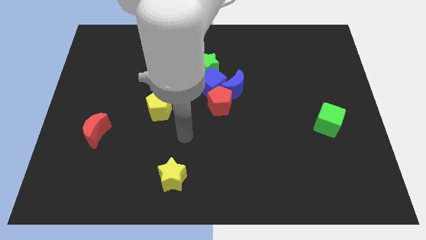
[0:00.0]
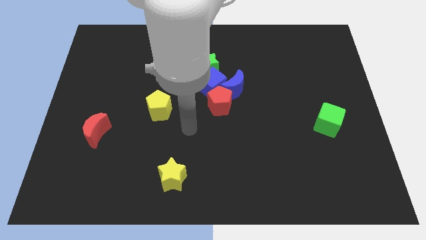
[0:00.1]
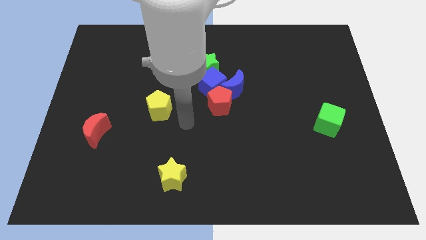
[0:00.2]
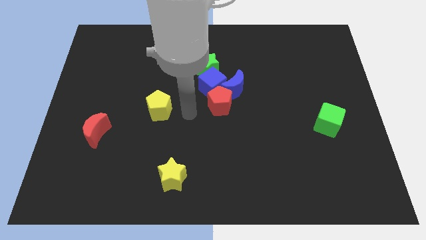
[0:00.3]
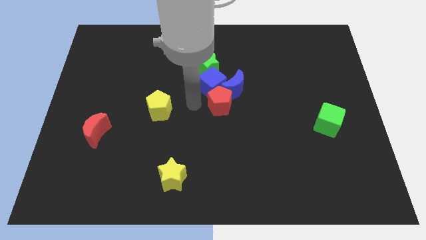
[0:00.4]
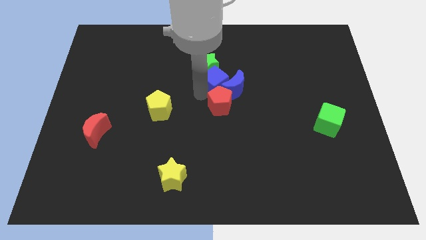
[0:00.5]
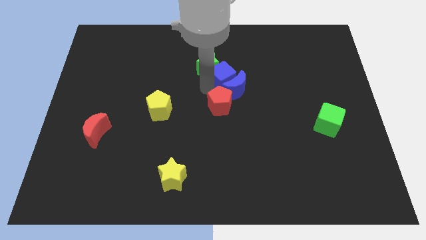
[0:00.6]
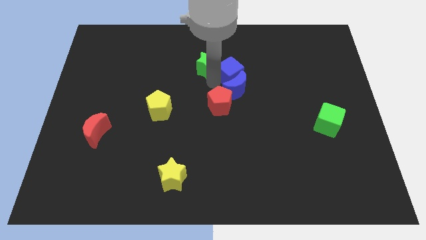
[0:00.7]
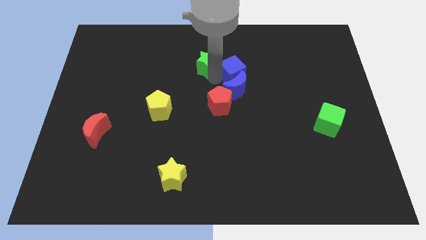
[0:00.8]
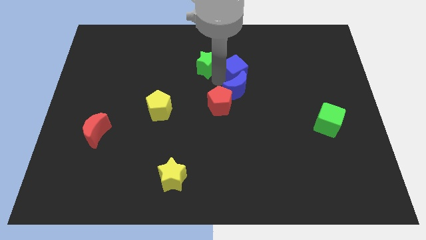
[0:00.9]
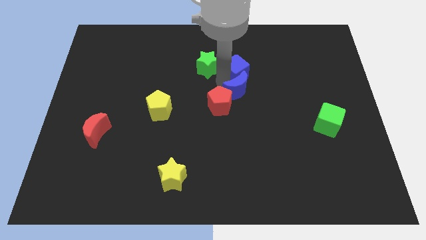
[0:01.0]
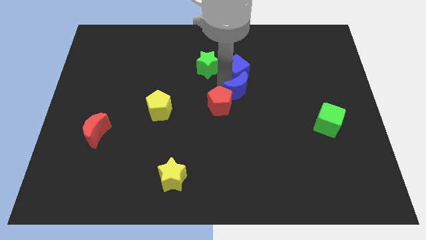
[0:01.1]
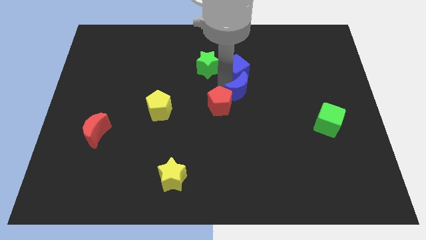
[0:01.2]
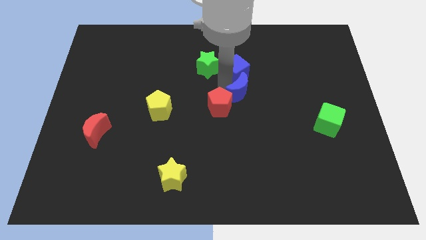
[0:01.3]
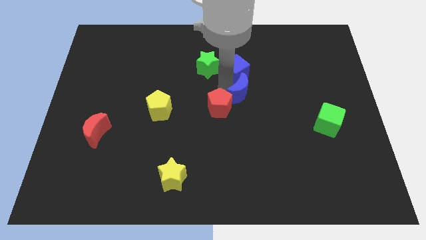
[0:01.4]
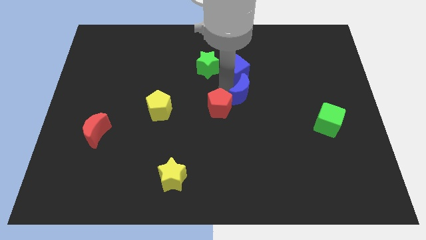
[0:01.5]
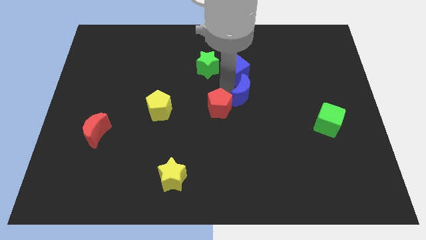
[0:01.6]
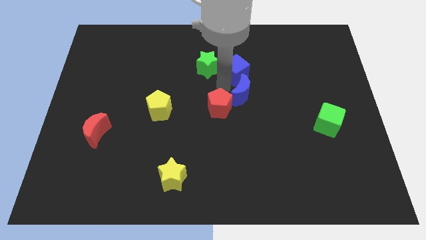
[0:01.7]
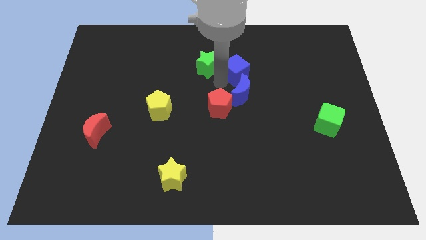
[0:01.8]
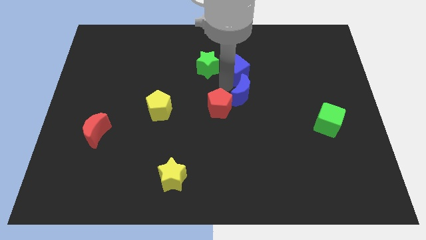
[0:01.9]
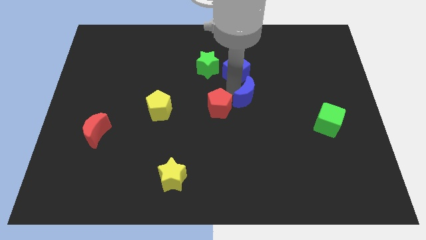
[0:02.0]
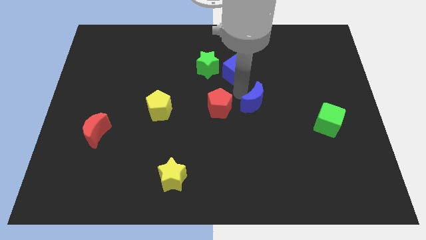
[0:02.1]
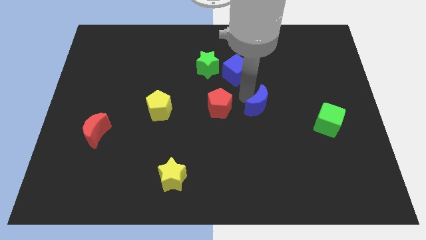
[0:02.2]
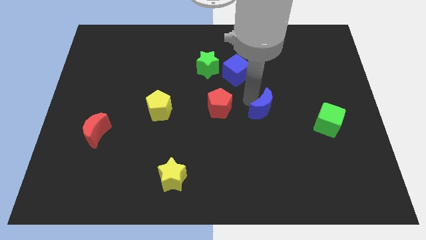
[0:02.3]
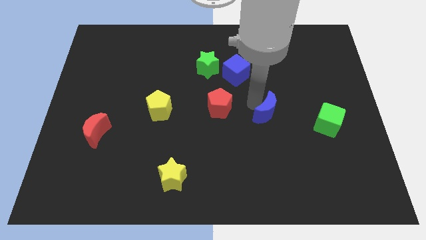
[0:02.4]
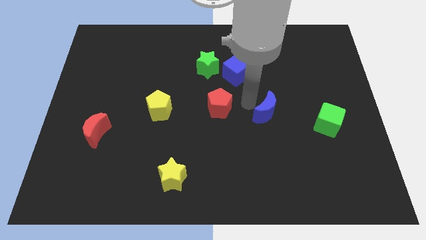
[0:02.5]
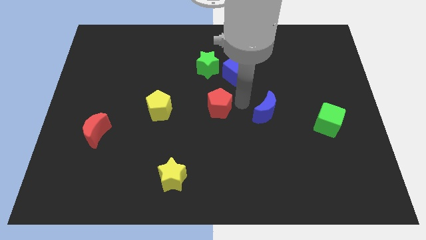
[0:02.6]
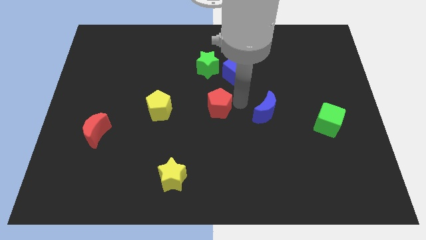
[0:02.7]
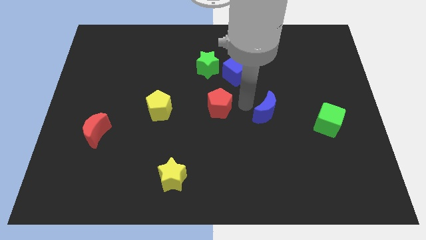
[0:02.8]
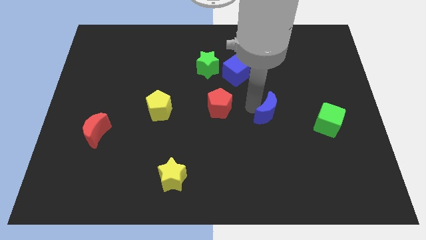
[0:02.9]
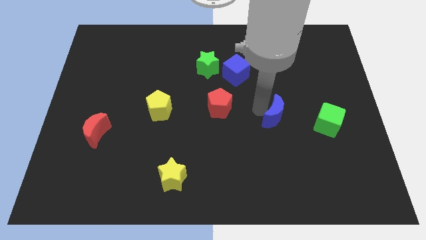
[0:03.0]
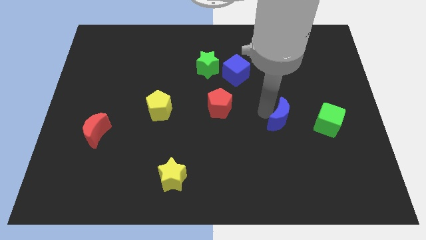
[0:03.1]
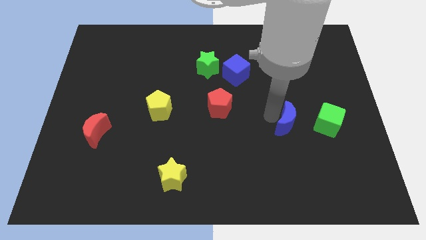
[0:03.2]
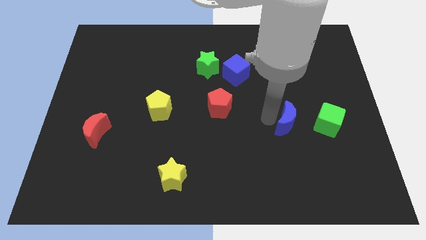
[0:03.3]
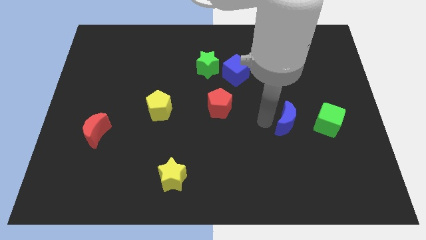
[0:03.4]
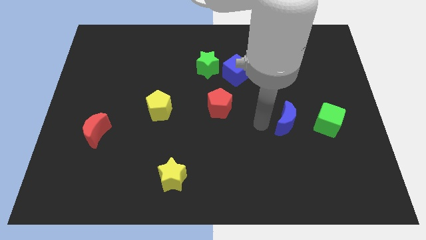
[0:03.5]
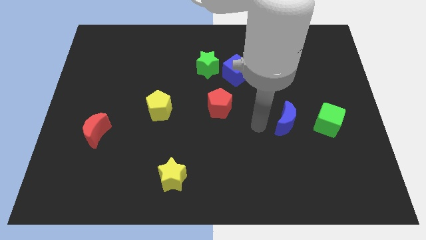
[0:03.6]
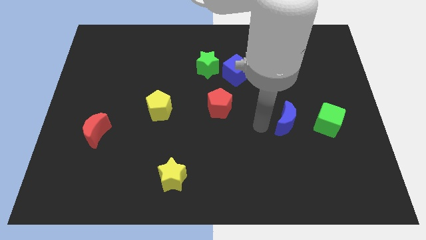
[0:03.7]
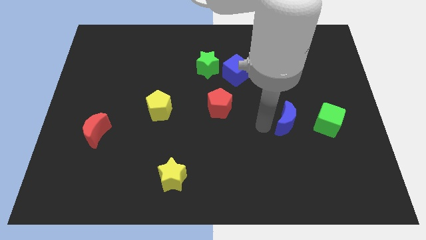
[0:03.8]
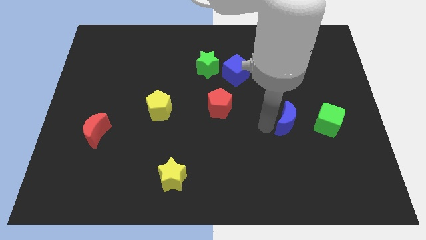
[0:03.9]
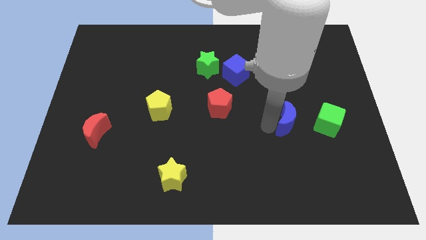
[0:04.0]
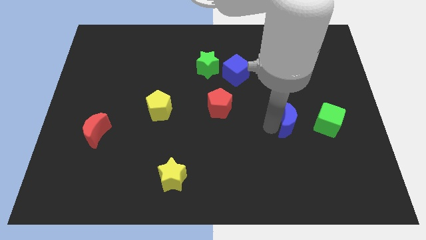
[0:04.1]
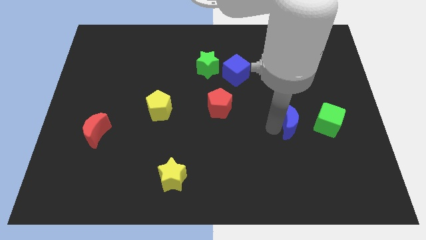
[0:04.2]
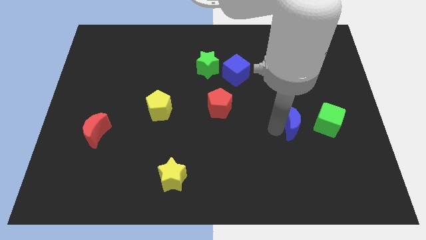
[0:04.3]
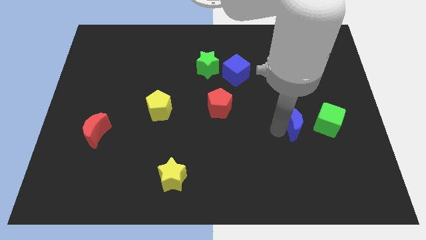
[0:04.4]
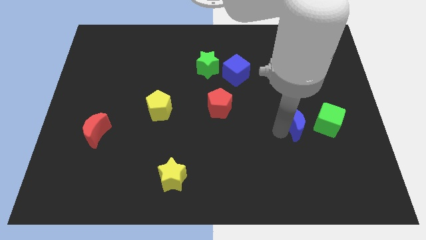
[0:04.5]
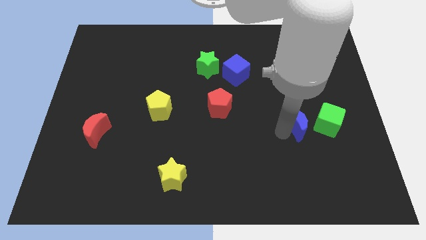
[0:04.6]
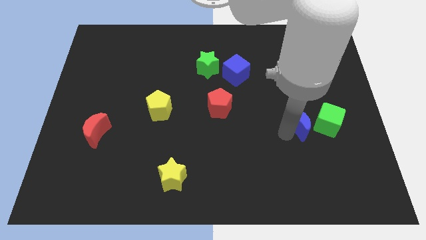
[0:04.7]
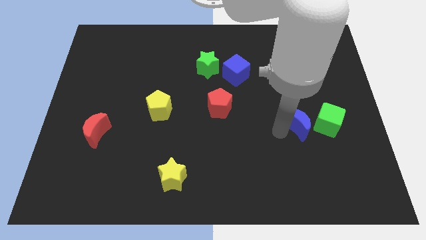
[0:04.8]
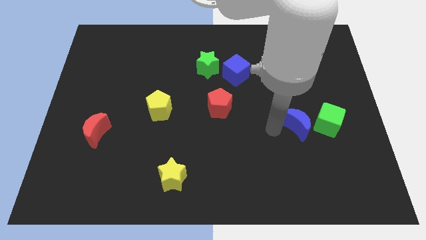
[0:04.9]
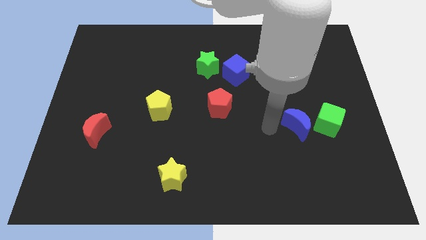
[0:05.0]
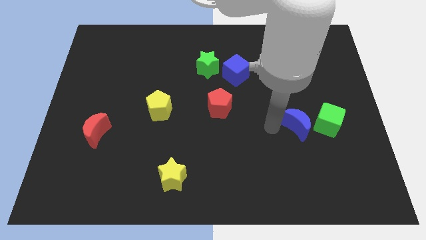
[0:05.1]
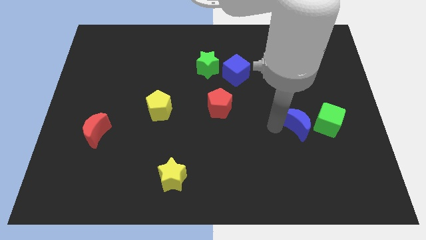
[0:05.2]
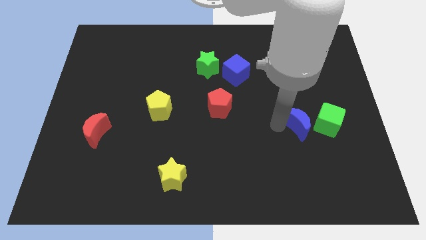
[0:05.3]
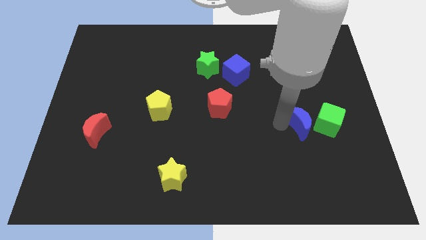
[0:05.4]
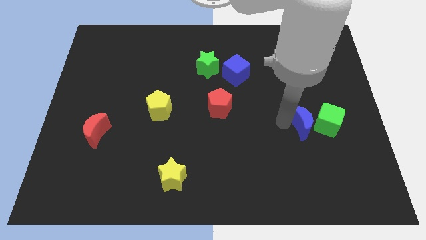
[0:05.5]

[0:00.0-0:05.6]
put the blue moon next to the green cube

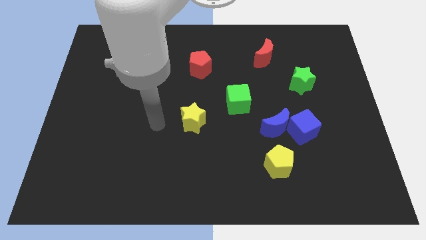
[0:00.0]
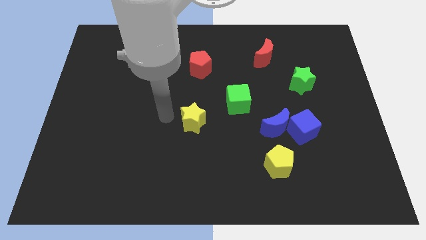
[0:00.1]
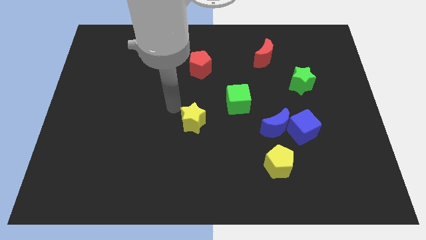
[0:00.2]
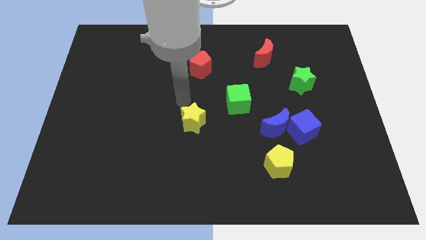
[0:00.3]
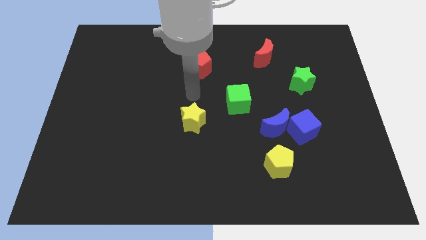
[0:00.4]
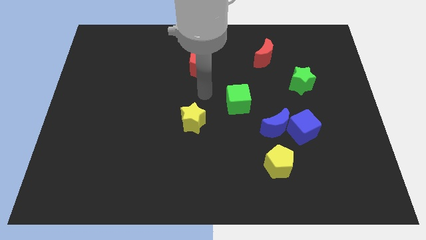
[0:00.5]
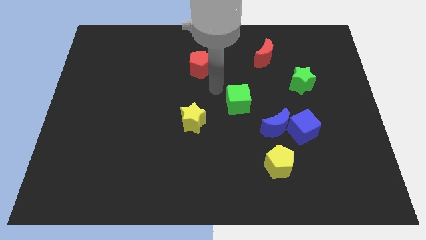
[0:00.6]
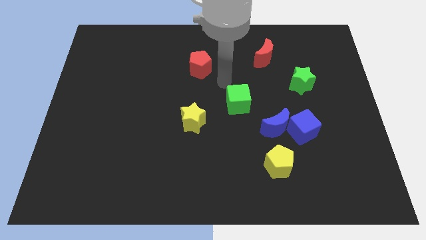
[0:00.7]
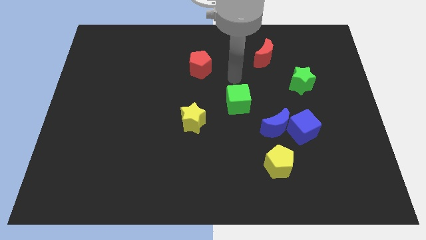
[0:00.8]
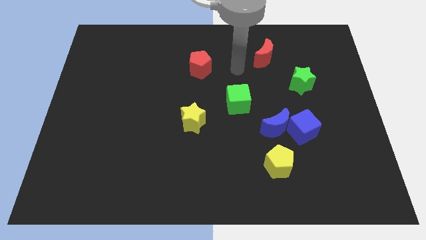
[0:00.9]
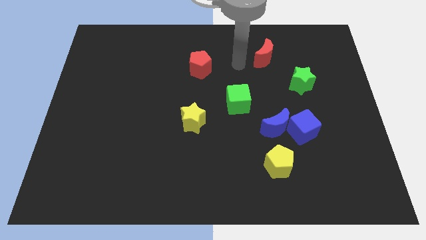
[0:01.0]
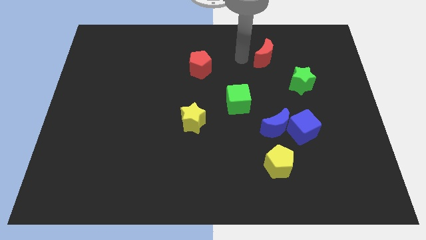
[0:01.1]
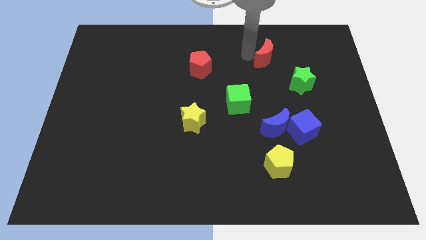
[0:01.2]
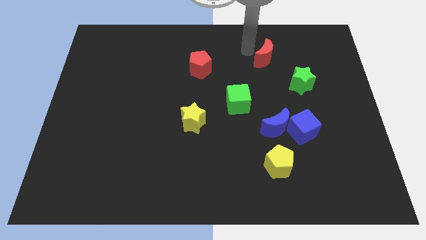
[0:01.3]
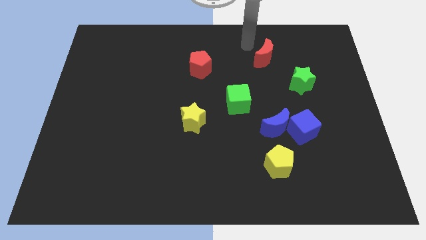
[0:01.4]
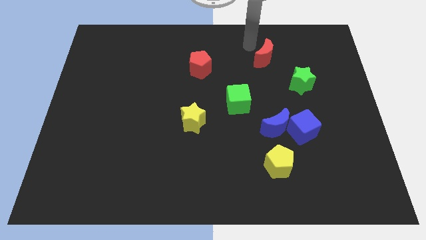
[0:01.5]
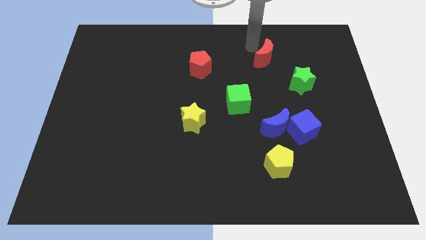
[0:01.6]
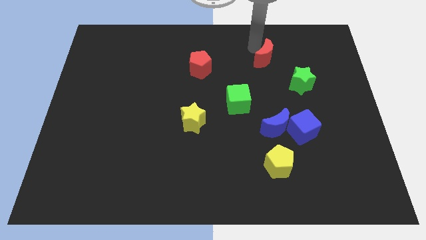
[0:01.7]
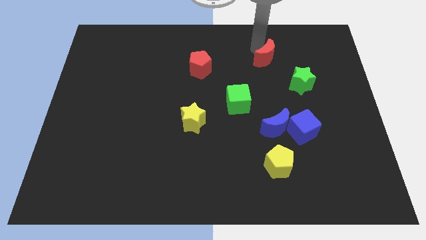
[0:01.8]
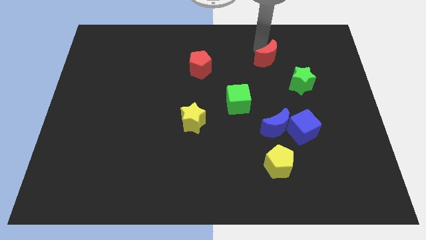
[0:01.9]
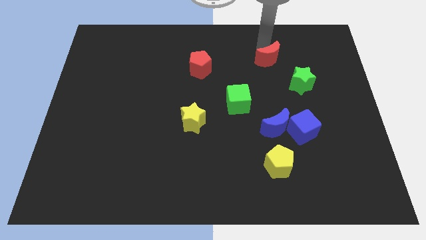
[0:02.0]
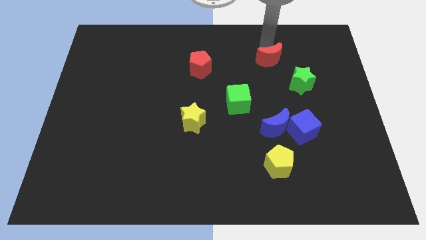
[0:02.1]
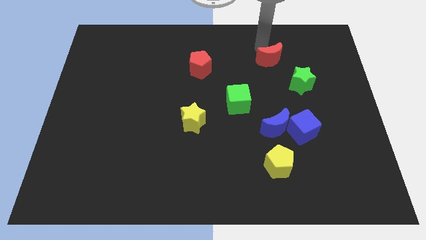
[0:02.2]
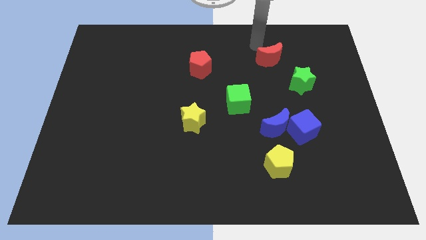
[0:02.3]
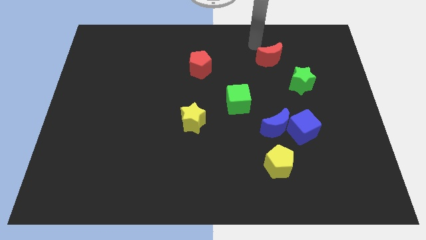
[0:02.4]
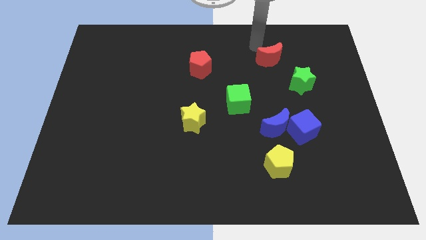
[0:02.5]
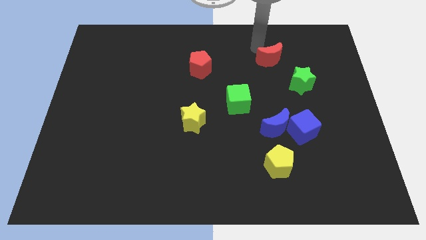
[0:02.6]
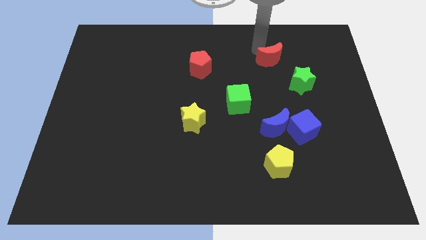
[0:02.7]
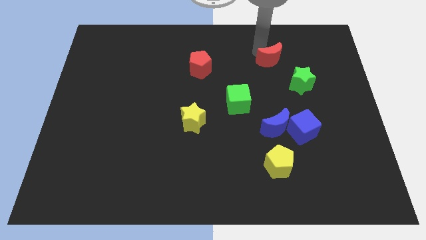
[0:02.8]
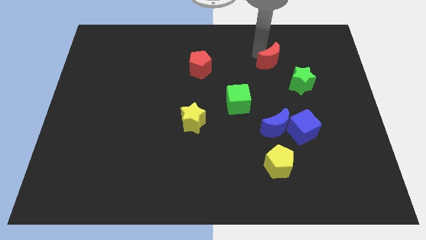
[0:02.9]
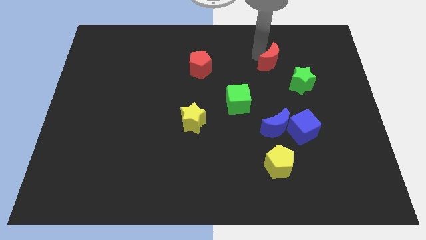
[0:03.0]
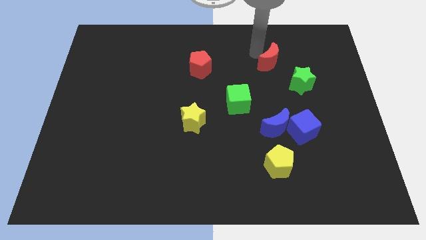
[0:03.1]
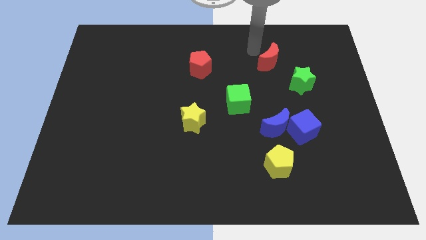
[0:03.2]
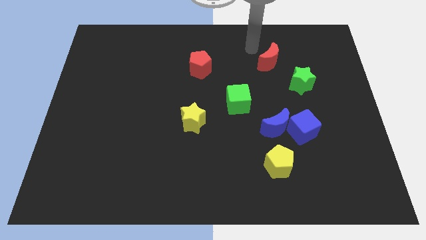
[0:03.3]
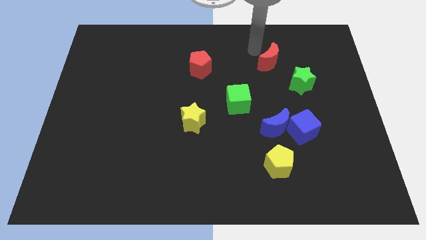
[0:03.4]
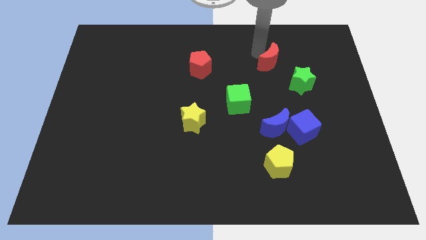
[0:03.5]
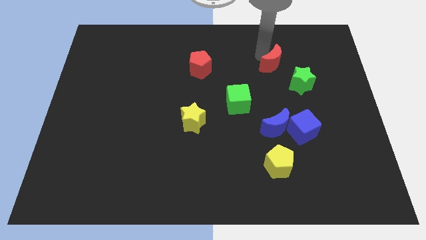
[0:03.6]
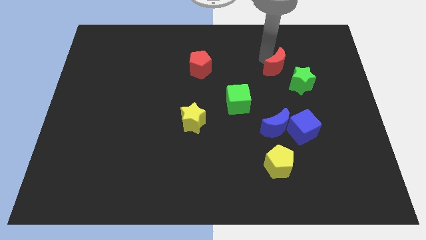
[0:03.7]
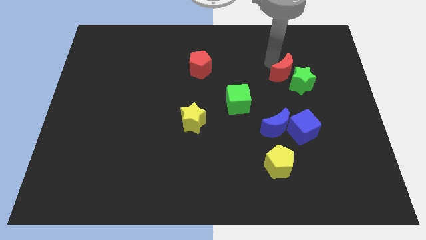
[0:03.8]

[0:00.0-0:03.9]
slide the red moon towards the green star
